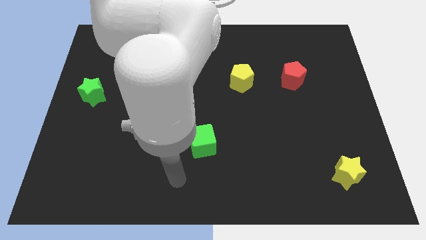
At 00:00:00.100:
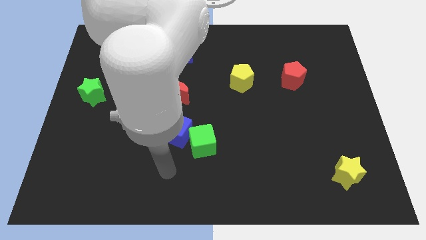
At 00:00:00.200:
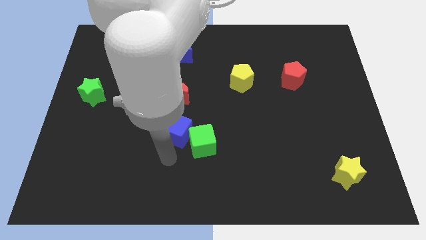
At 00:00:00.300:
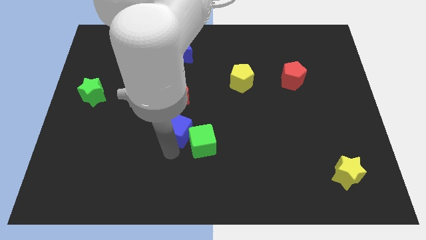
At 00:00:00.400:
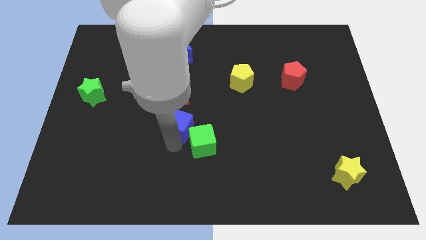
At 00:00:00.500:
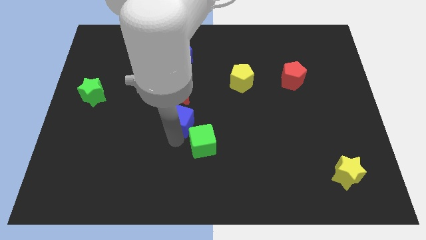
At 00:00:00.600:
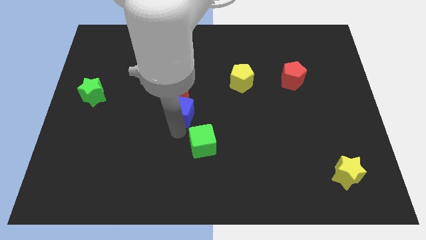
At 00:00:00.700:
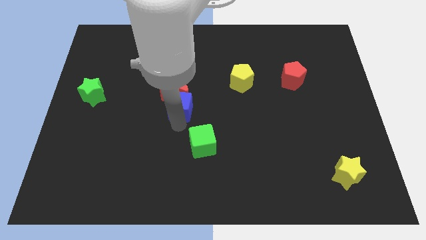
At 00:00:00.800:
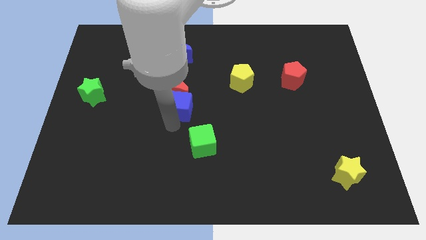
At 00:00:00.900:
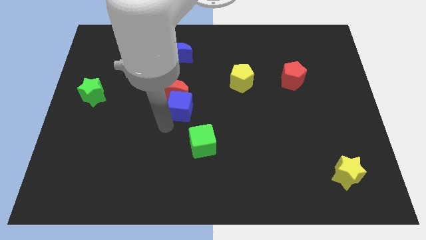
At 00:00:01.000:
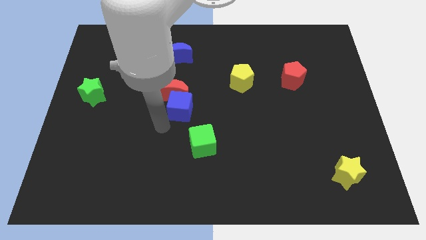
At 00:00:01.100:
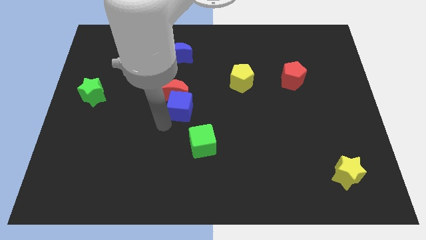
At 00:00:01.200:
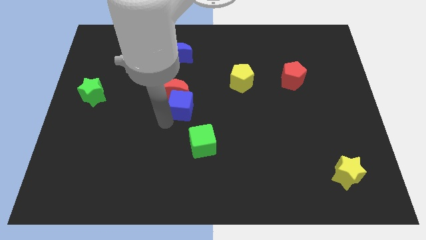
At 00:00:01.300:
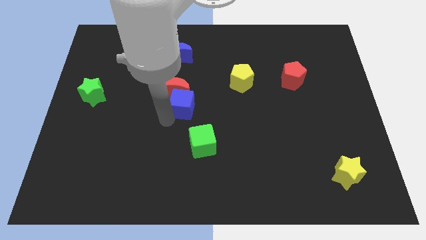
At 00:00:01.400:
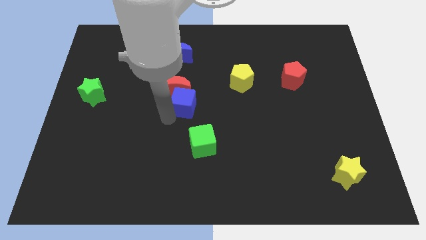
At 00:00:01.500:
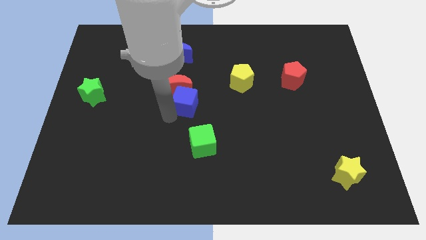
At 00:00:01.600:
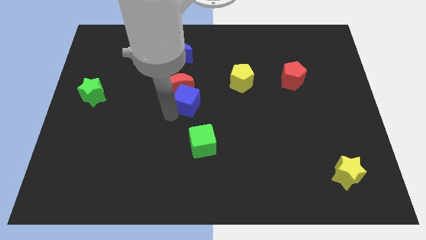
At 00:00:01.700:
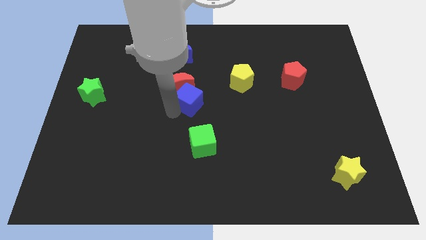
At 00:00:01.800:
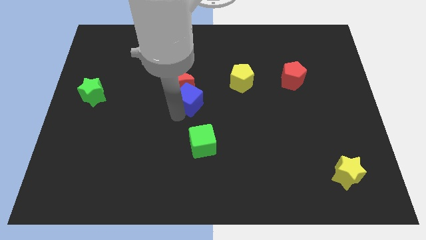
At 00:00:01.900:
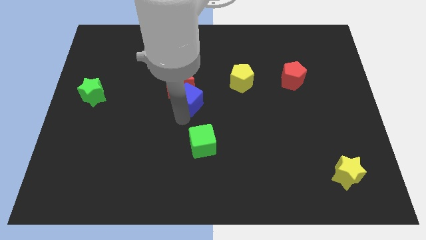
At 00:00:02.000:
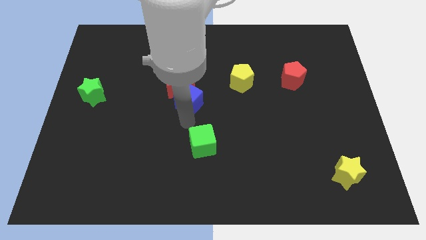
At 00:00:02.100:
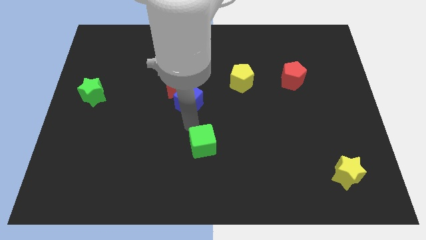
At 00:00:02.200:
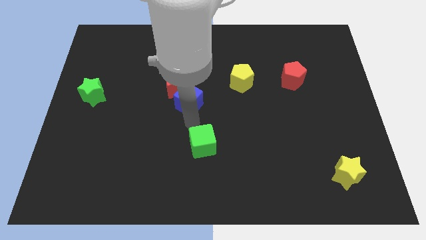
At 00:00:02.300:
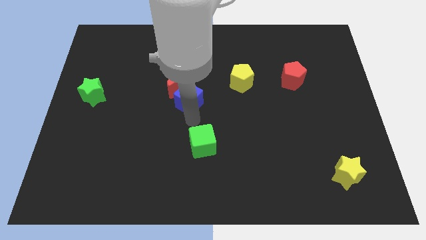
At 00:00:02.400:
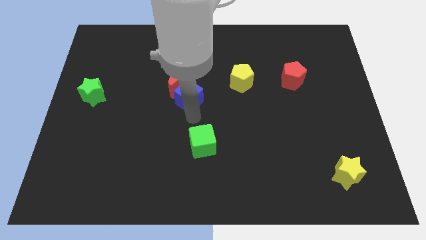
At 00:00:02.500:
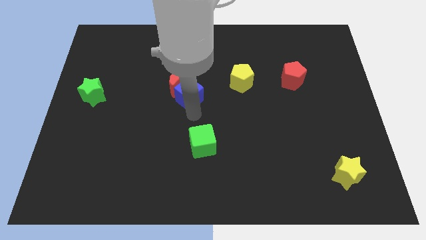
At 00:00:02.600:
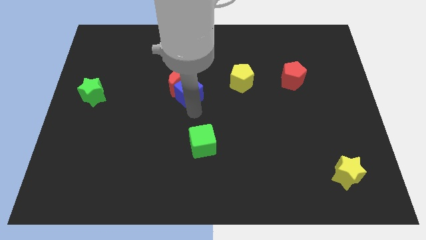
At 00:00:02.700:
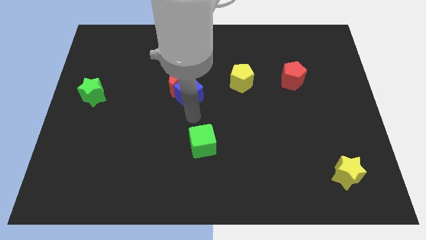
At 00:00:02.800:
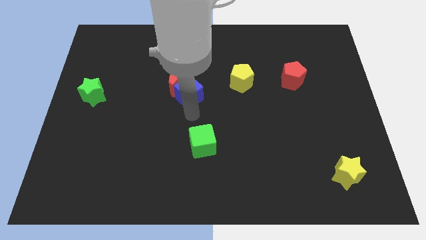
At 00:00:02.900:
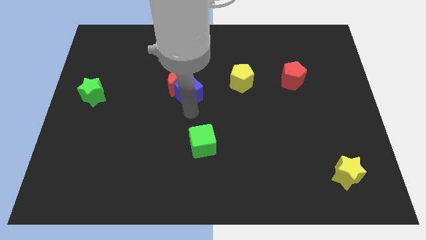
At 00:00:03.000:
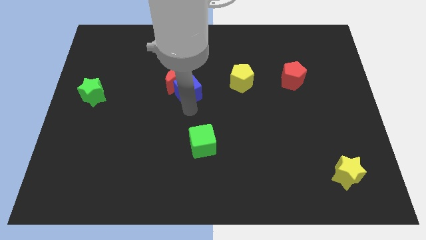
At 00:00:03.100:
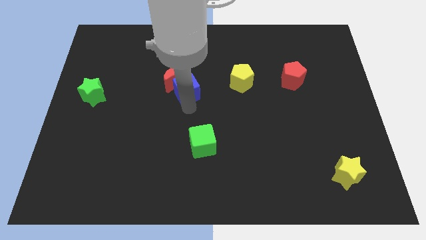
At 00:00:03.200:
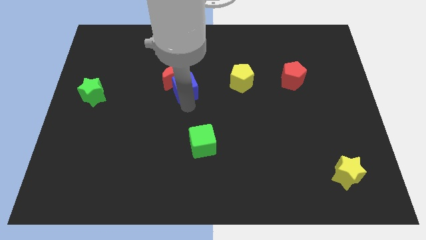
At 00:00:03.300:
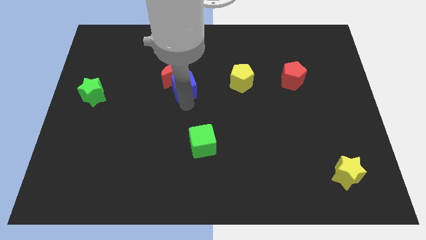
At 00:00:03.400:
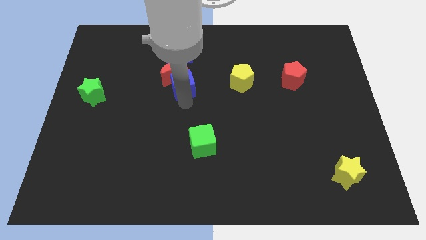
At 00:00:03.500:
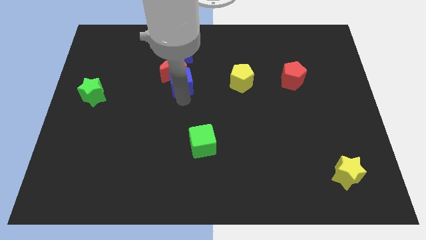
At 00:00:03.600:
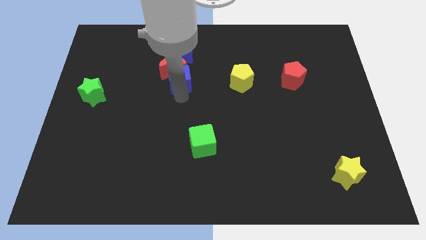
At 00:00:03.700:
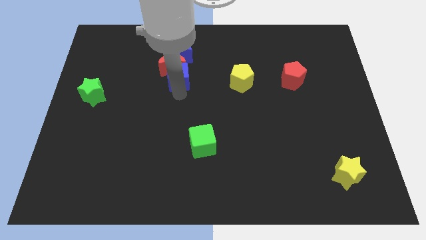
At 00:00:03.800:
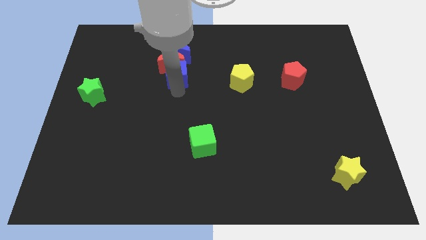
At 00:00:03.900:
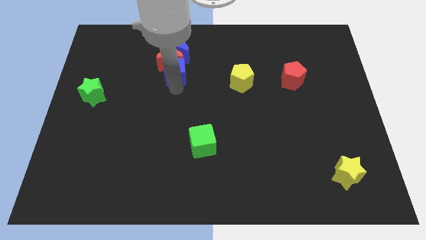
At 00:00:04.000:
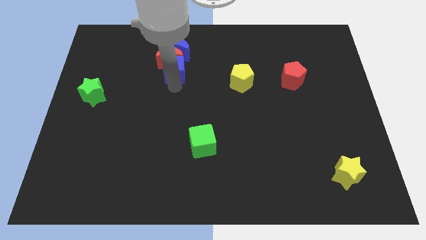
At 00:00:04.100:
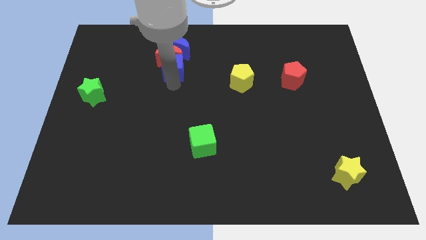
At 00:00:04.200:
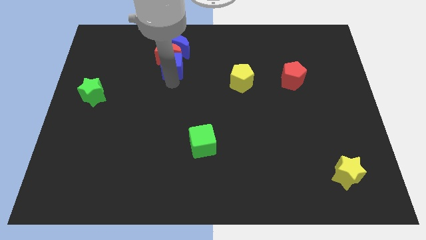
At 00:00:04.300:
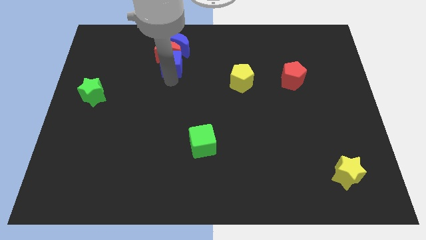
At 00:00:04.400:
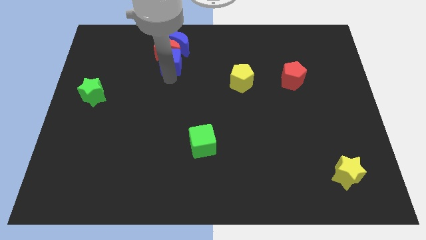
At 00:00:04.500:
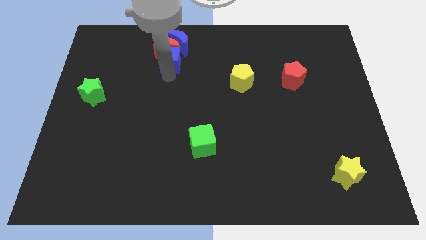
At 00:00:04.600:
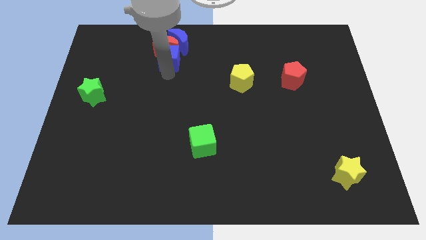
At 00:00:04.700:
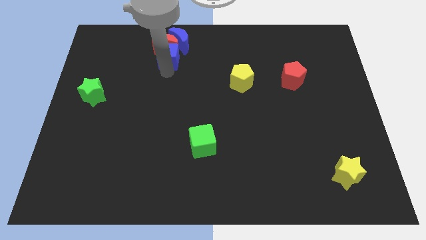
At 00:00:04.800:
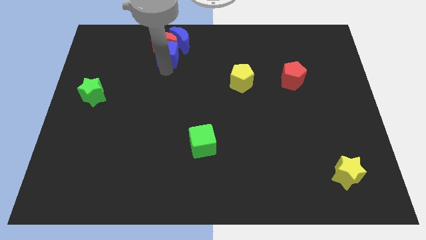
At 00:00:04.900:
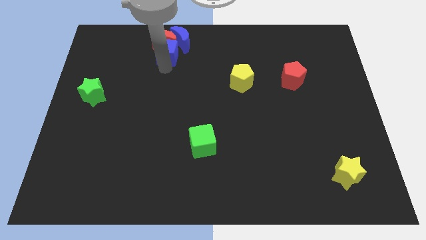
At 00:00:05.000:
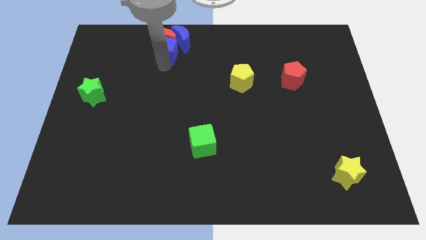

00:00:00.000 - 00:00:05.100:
put the blue cube close to the blue moon

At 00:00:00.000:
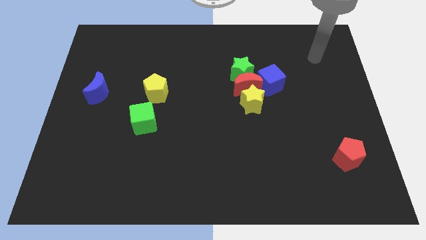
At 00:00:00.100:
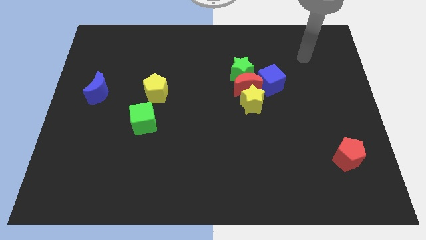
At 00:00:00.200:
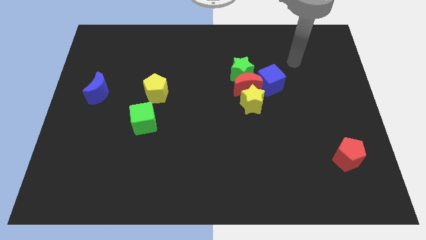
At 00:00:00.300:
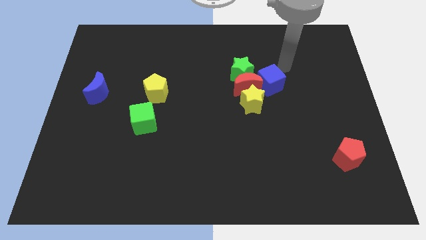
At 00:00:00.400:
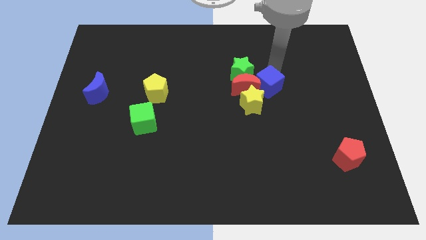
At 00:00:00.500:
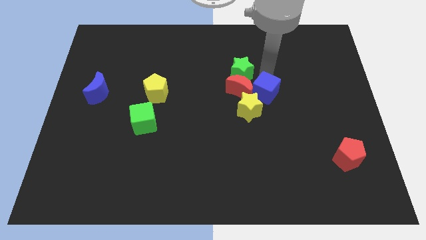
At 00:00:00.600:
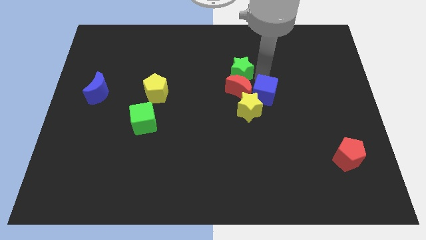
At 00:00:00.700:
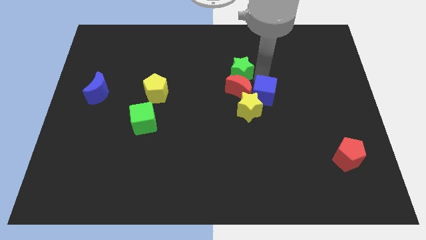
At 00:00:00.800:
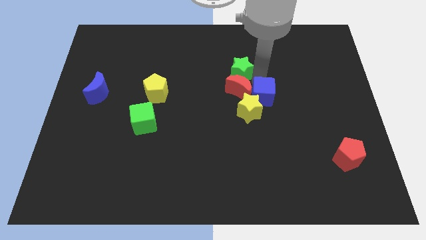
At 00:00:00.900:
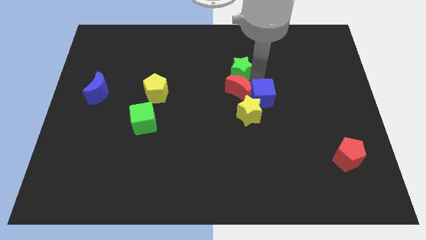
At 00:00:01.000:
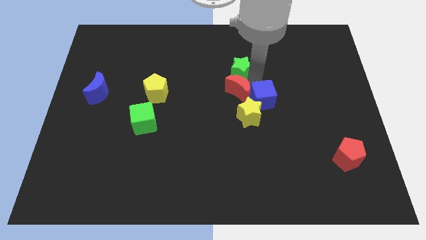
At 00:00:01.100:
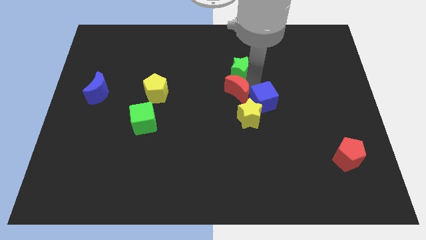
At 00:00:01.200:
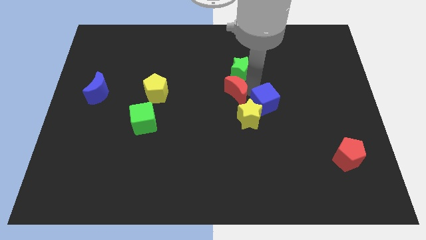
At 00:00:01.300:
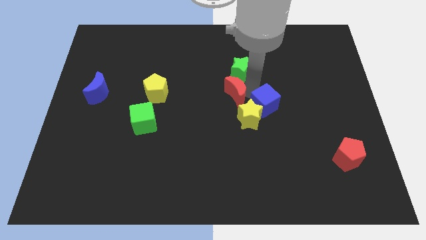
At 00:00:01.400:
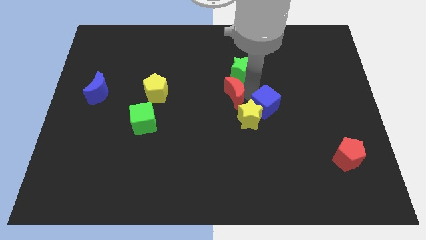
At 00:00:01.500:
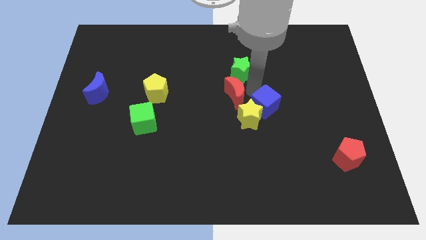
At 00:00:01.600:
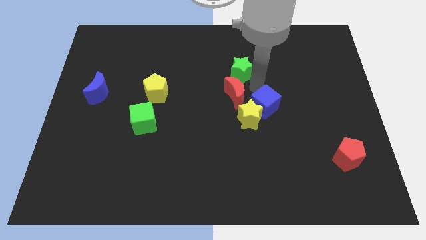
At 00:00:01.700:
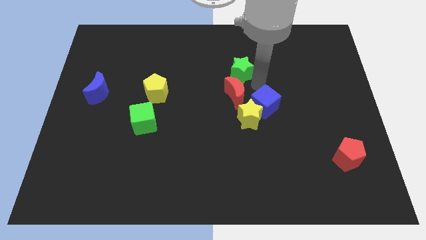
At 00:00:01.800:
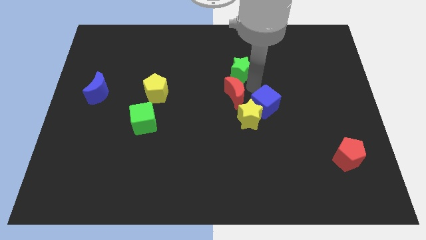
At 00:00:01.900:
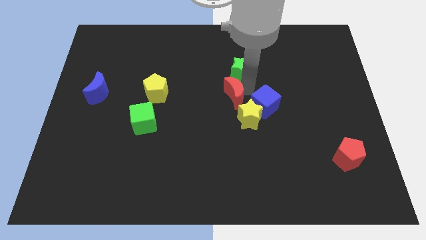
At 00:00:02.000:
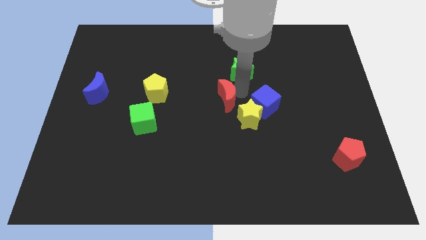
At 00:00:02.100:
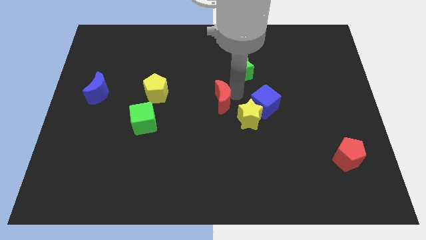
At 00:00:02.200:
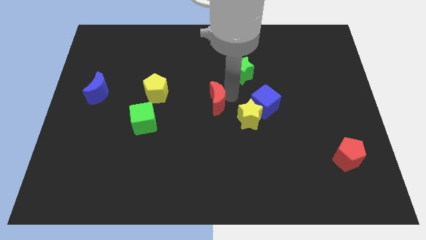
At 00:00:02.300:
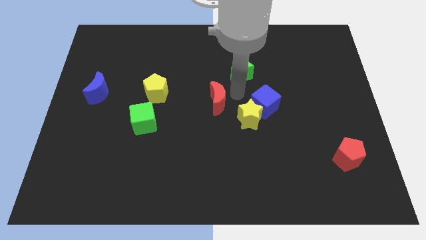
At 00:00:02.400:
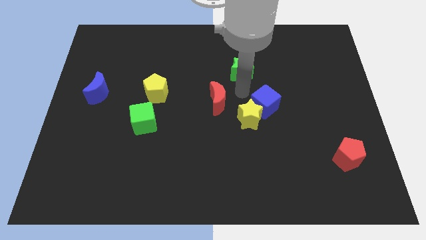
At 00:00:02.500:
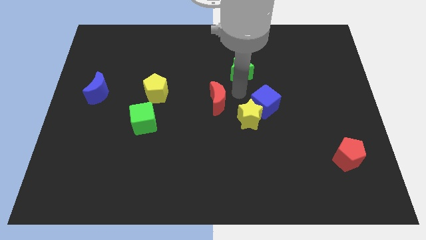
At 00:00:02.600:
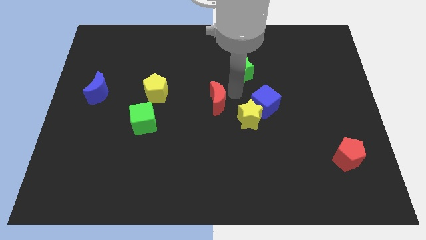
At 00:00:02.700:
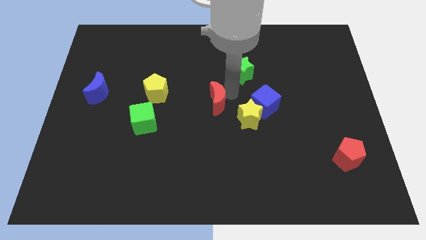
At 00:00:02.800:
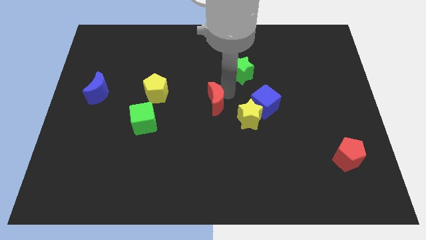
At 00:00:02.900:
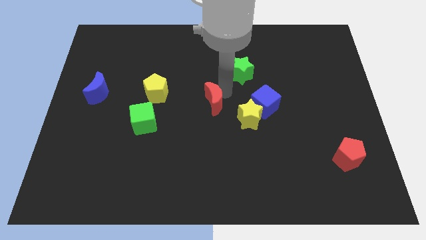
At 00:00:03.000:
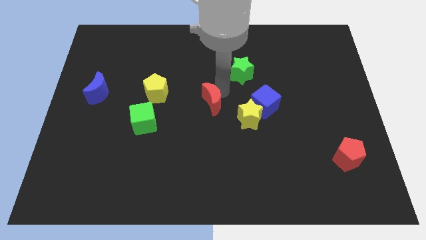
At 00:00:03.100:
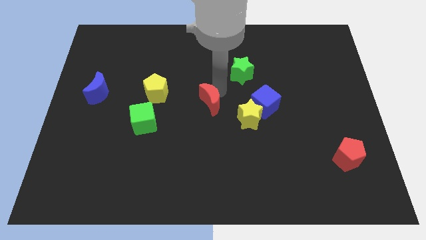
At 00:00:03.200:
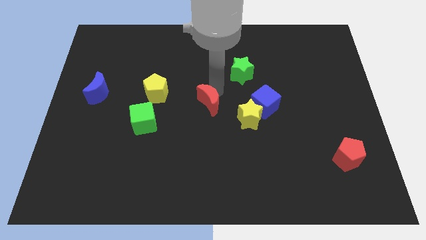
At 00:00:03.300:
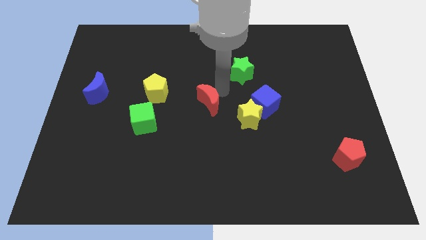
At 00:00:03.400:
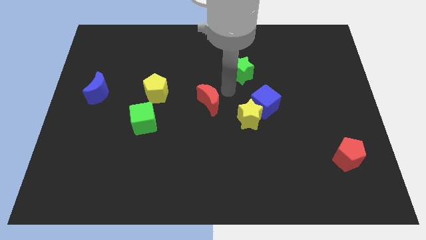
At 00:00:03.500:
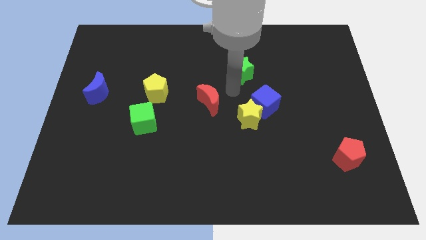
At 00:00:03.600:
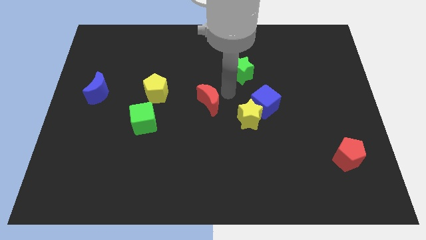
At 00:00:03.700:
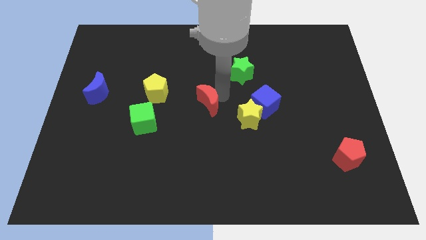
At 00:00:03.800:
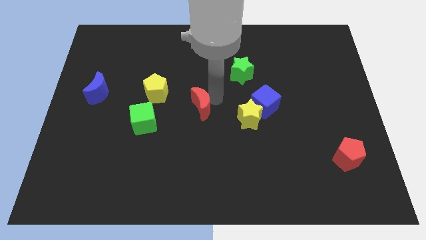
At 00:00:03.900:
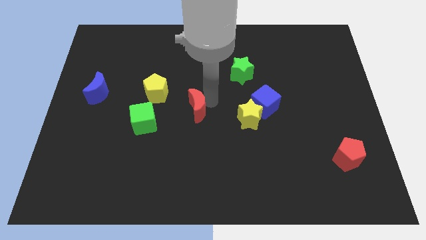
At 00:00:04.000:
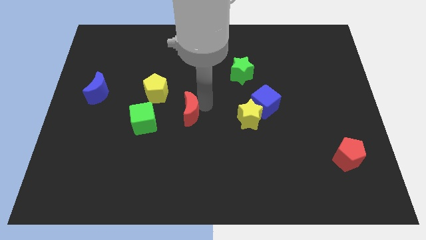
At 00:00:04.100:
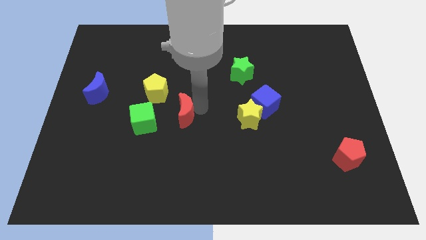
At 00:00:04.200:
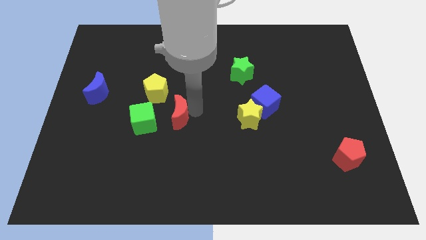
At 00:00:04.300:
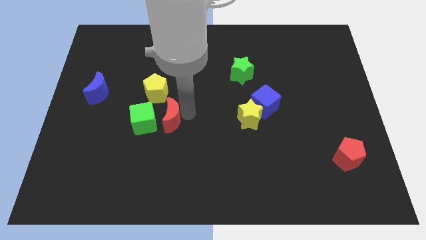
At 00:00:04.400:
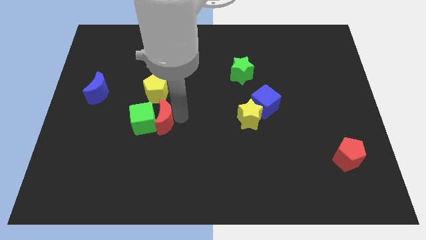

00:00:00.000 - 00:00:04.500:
push the red moon towards the green cube
